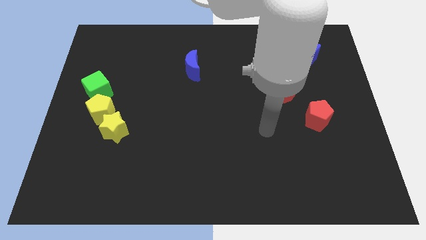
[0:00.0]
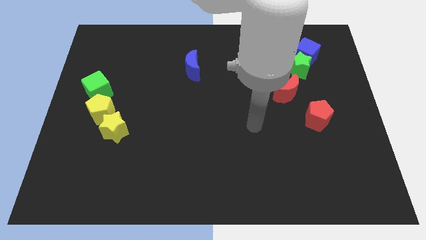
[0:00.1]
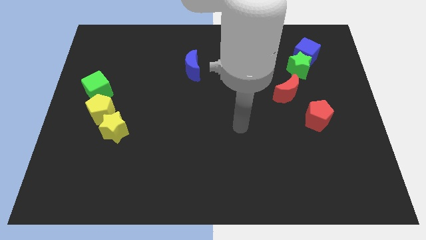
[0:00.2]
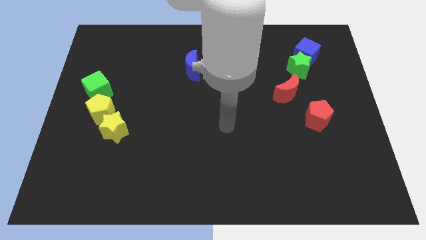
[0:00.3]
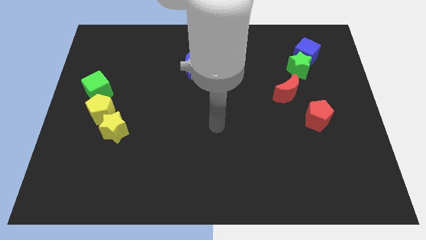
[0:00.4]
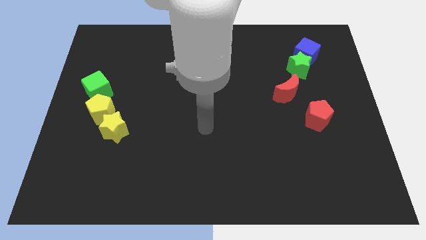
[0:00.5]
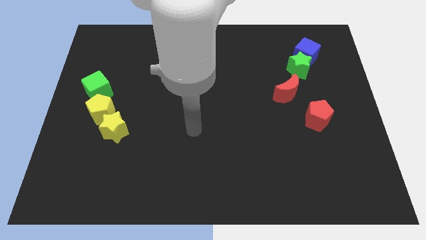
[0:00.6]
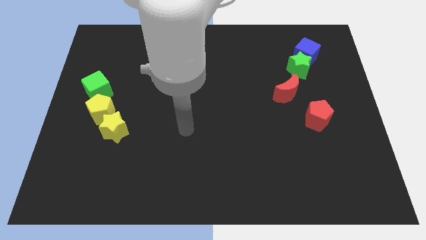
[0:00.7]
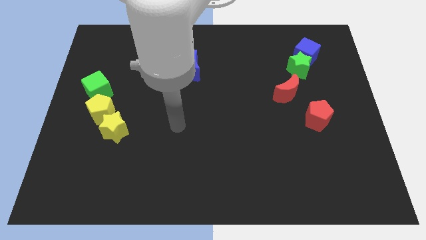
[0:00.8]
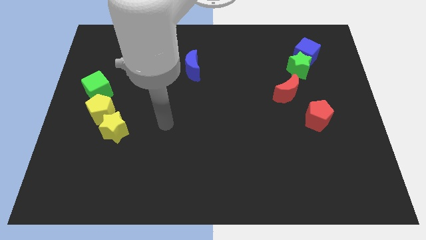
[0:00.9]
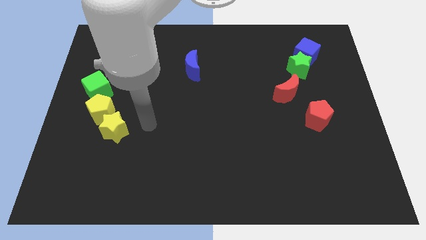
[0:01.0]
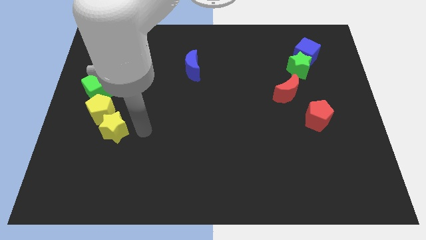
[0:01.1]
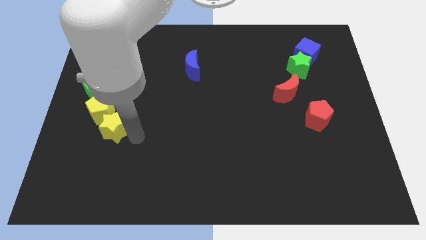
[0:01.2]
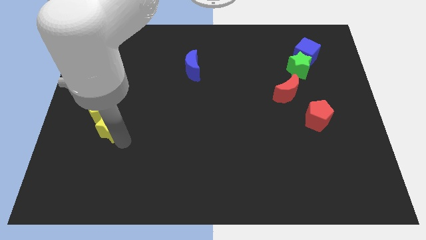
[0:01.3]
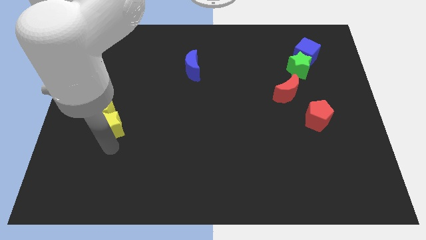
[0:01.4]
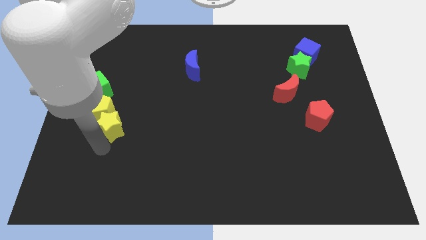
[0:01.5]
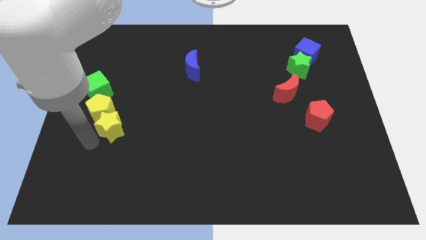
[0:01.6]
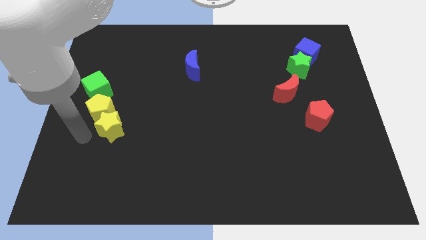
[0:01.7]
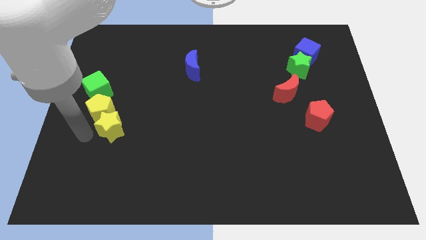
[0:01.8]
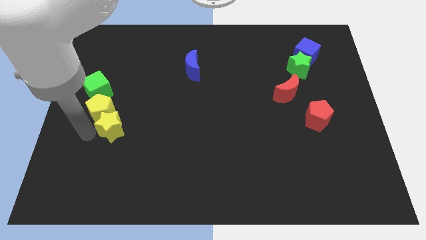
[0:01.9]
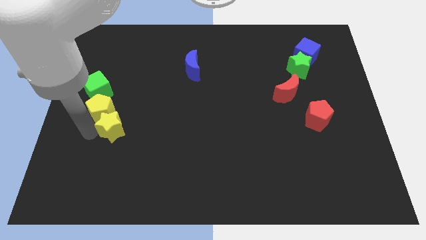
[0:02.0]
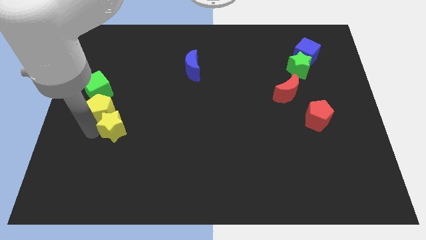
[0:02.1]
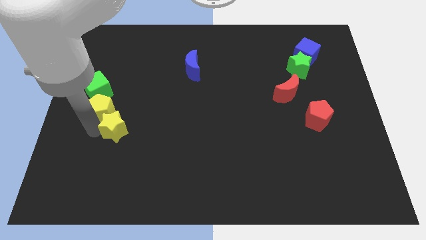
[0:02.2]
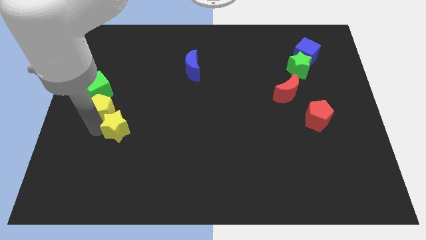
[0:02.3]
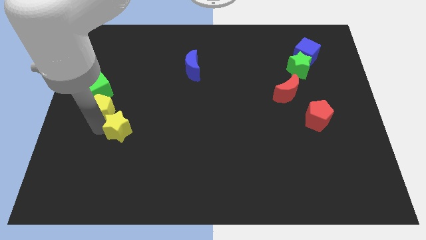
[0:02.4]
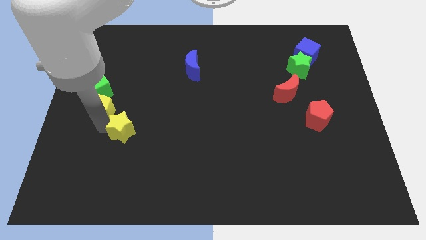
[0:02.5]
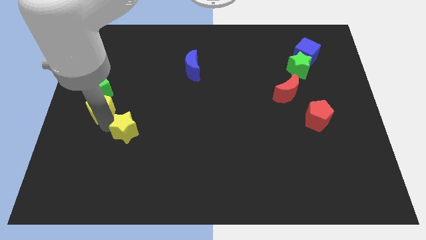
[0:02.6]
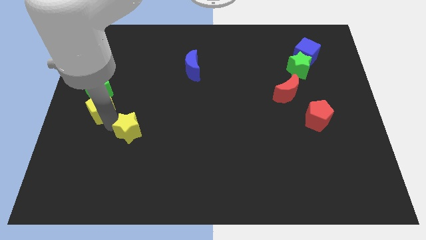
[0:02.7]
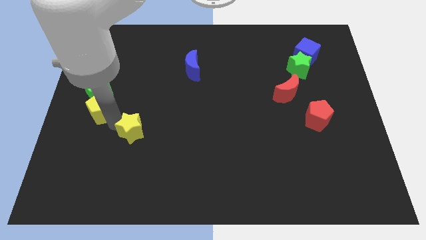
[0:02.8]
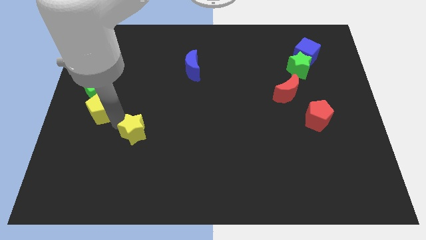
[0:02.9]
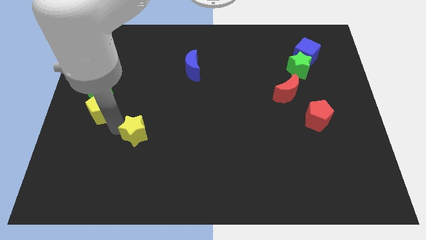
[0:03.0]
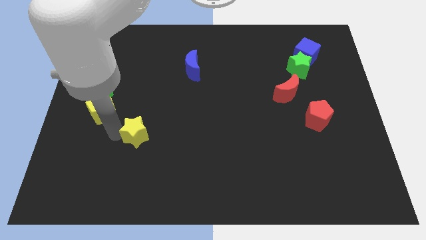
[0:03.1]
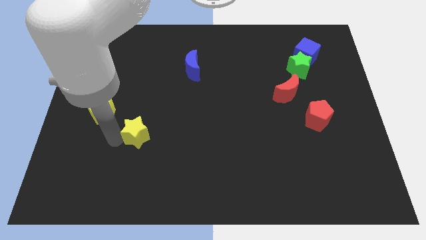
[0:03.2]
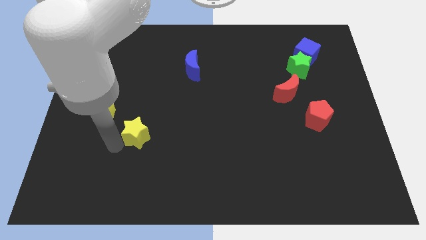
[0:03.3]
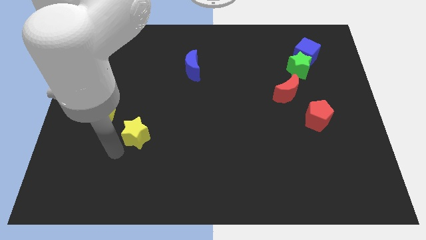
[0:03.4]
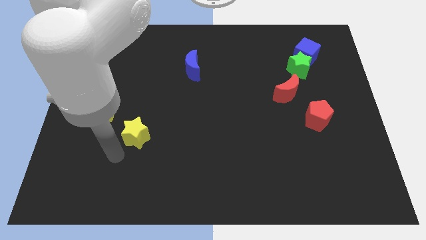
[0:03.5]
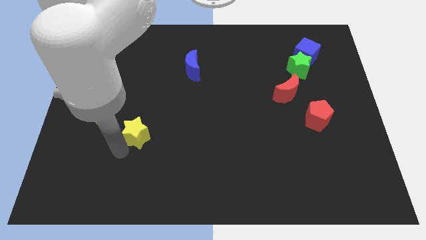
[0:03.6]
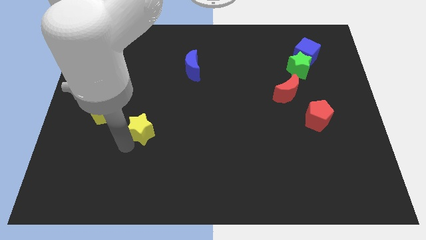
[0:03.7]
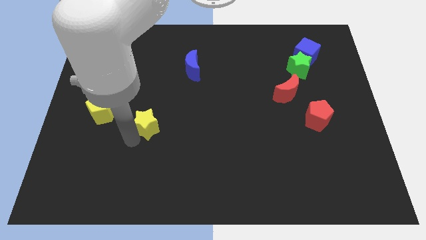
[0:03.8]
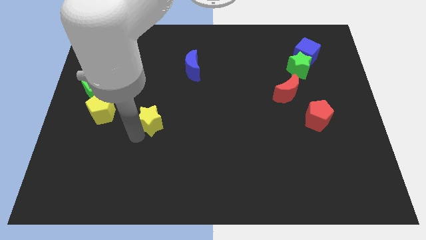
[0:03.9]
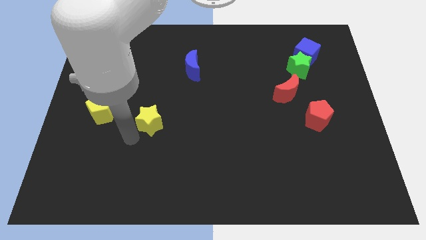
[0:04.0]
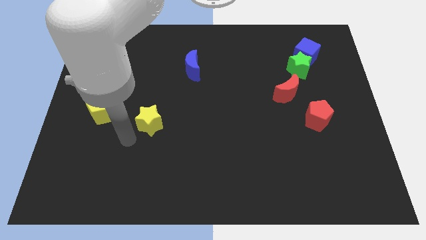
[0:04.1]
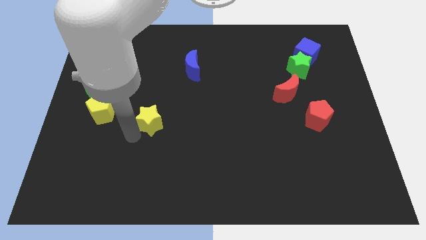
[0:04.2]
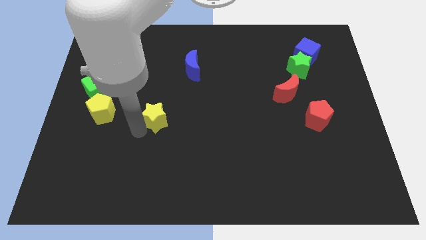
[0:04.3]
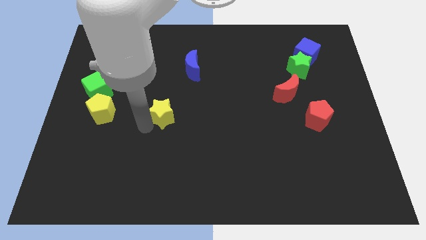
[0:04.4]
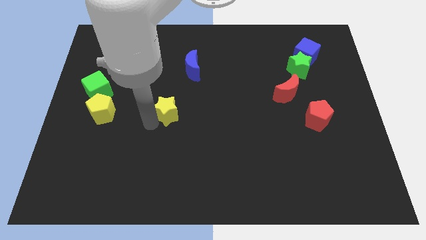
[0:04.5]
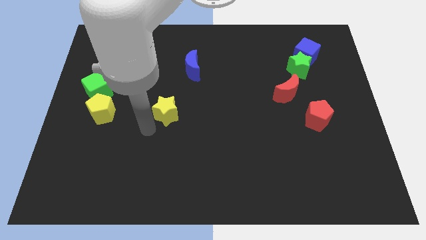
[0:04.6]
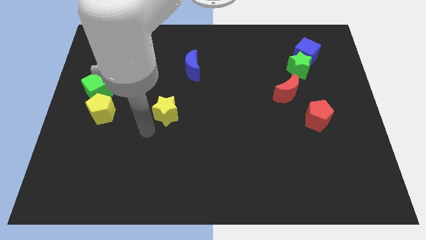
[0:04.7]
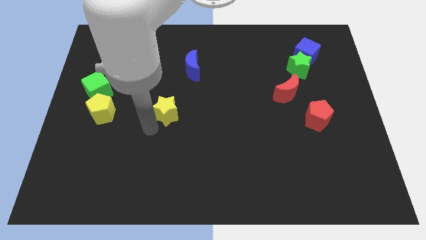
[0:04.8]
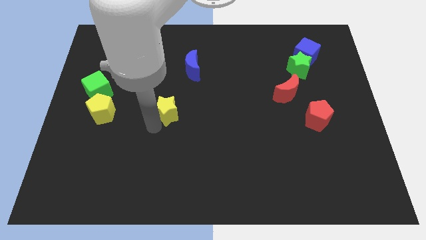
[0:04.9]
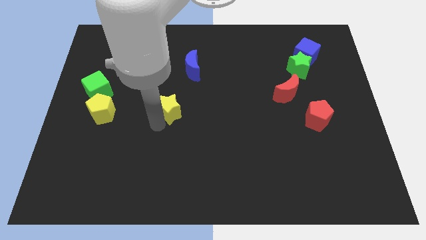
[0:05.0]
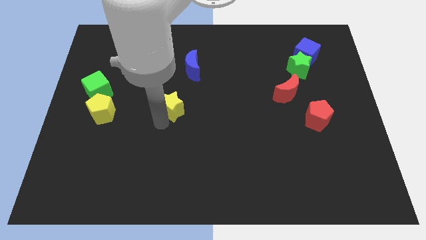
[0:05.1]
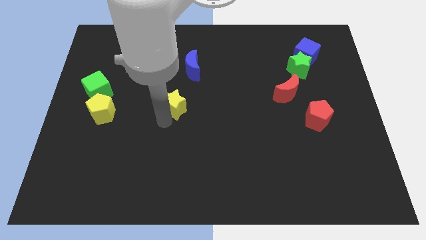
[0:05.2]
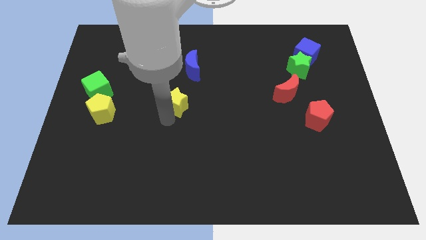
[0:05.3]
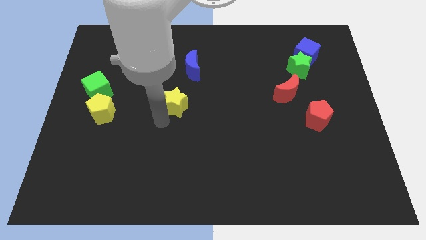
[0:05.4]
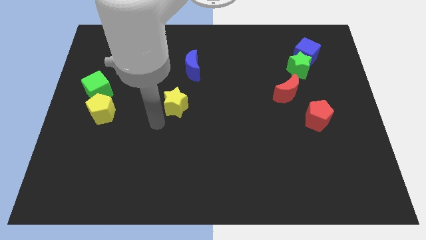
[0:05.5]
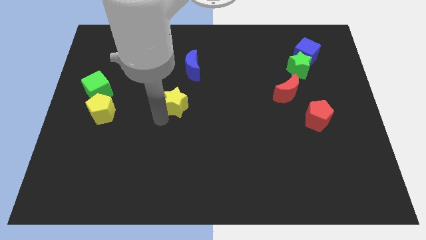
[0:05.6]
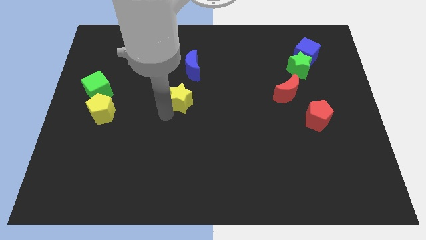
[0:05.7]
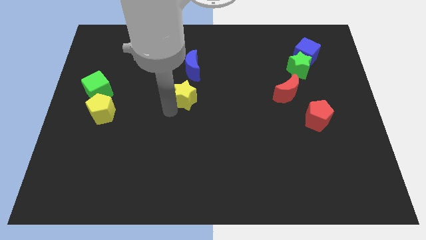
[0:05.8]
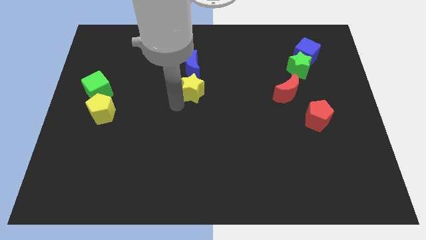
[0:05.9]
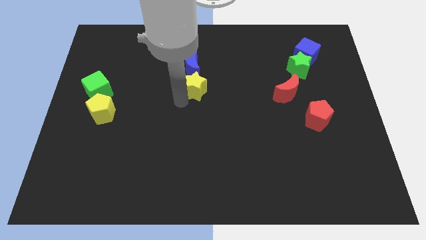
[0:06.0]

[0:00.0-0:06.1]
move the yellow star diagonally upwards and to the right

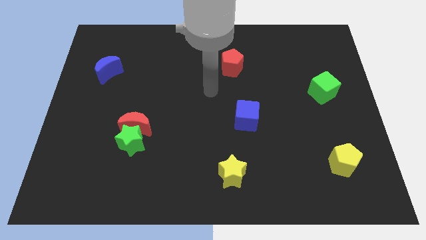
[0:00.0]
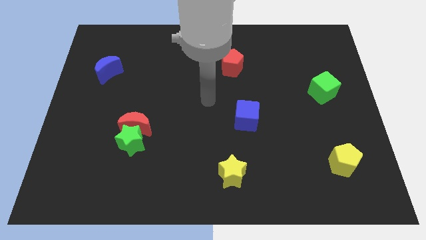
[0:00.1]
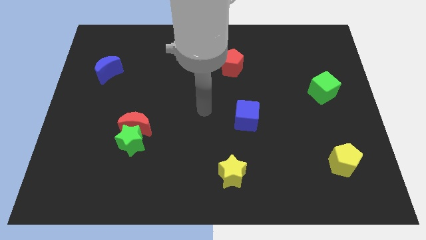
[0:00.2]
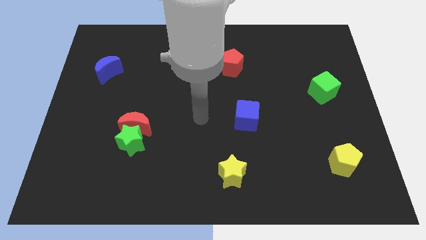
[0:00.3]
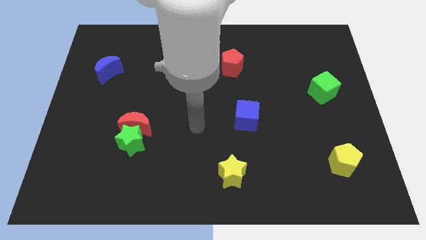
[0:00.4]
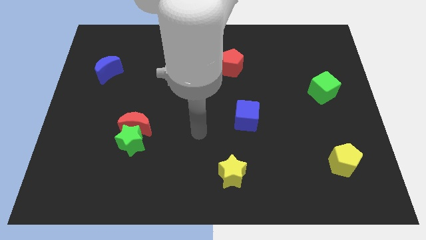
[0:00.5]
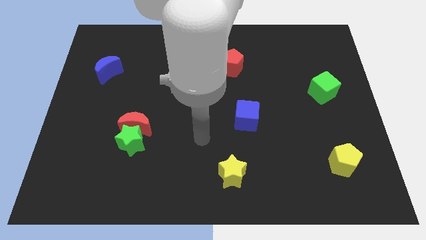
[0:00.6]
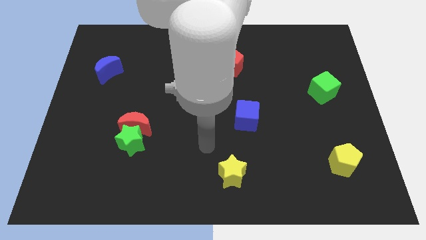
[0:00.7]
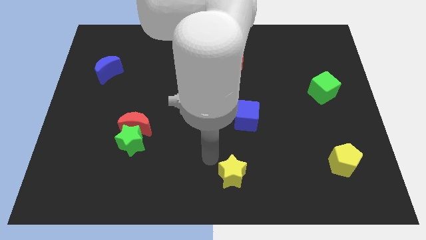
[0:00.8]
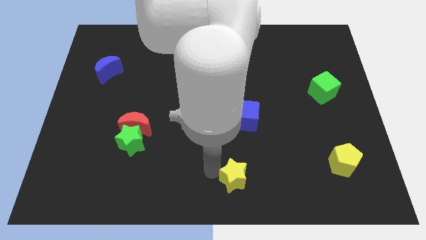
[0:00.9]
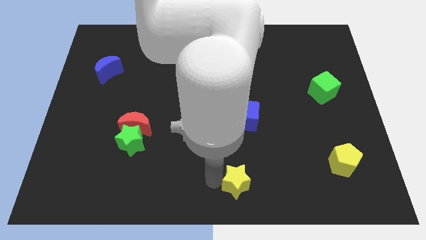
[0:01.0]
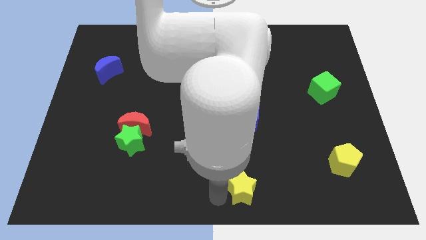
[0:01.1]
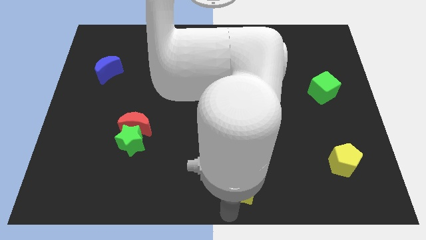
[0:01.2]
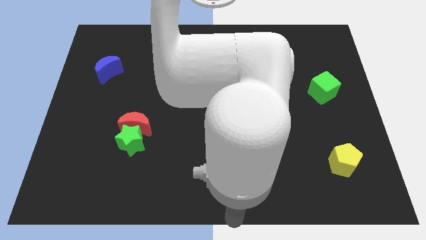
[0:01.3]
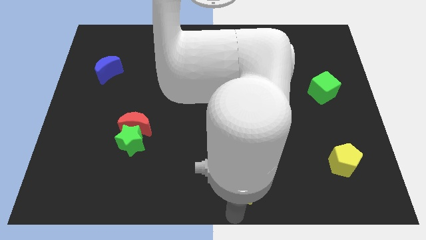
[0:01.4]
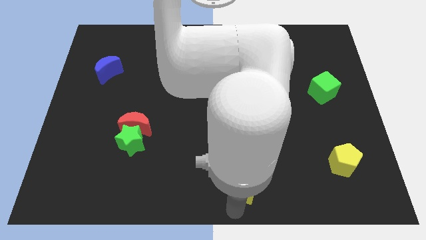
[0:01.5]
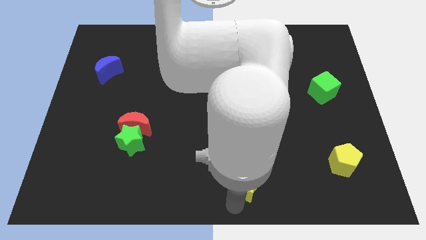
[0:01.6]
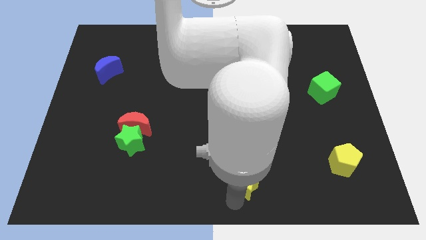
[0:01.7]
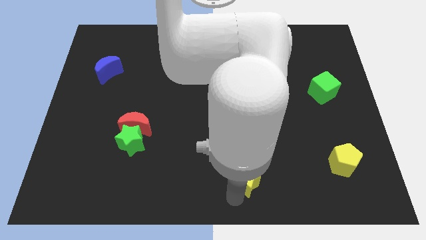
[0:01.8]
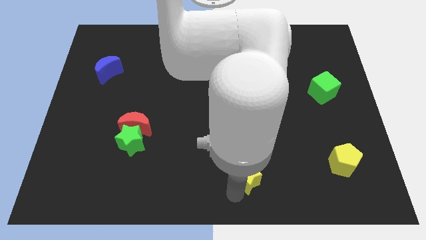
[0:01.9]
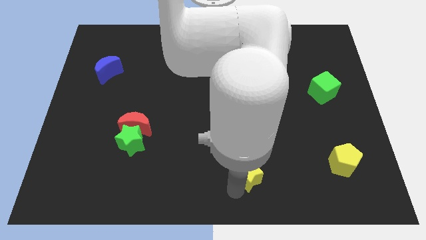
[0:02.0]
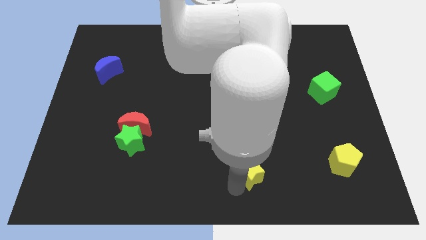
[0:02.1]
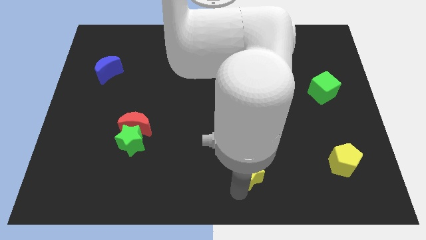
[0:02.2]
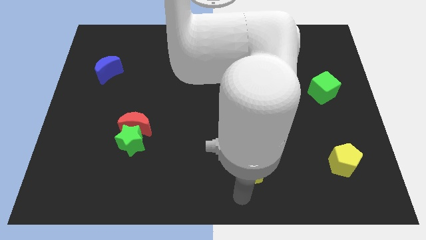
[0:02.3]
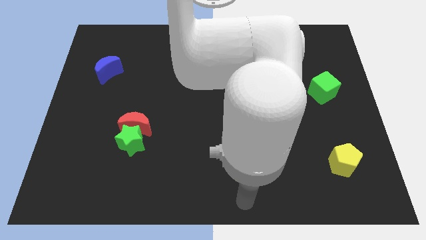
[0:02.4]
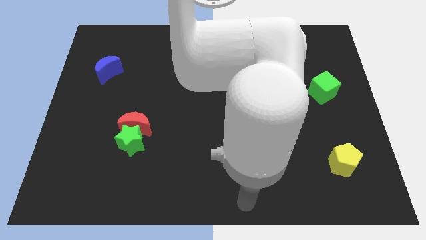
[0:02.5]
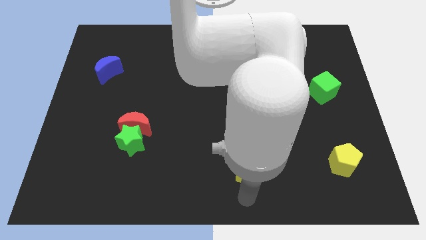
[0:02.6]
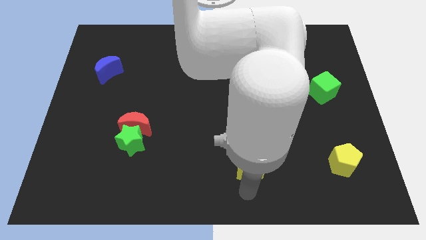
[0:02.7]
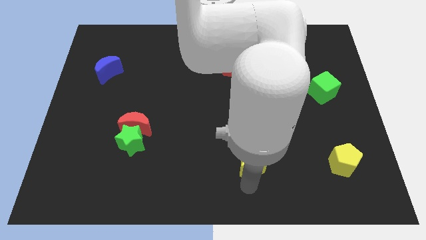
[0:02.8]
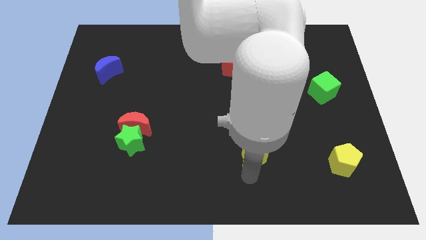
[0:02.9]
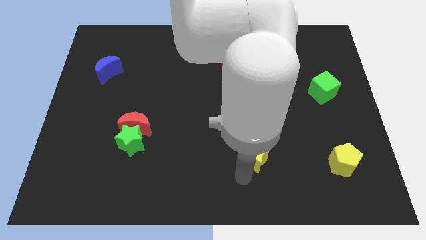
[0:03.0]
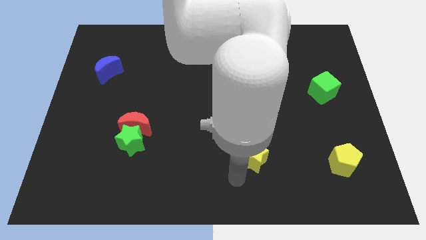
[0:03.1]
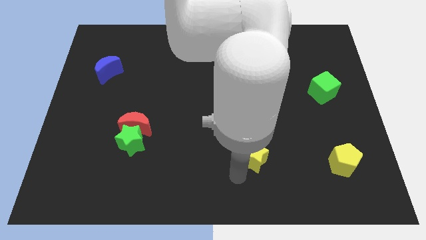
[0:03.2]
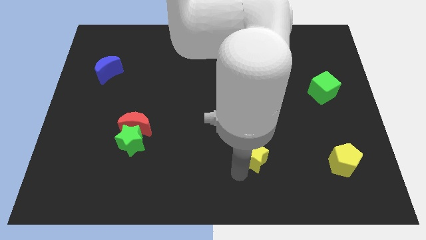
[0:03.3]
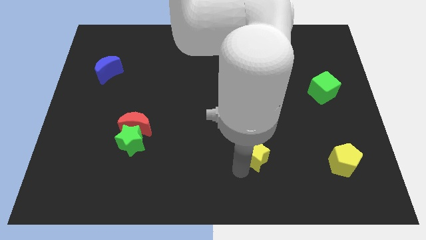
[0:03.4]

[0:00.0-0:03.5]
move the yellow star slightly upwards and right
